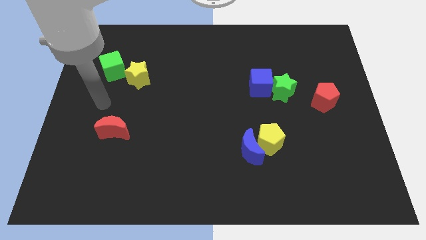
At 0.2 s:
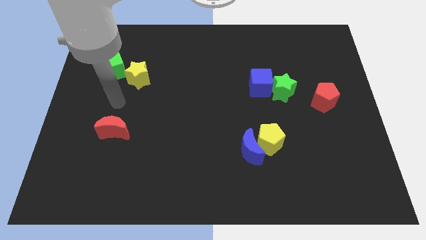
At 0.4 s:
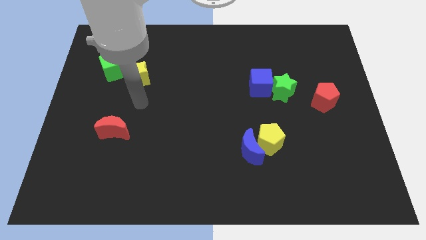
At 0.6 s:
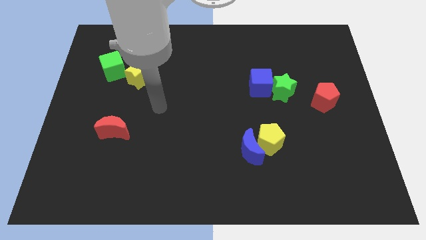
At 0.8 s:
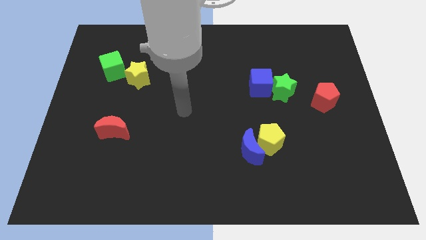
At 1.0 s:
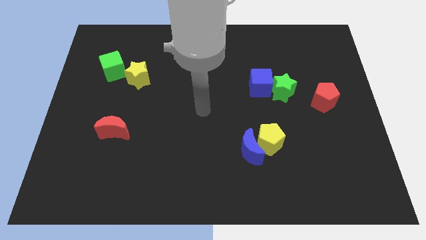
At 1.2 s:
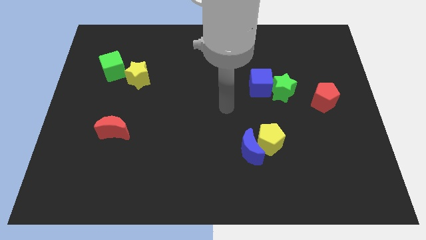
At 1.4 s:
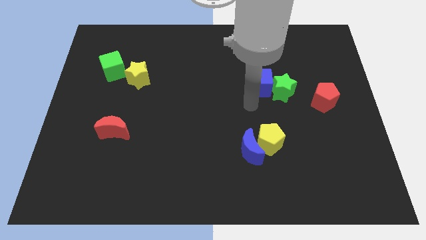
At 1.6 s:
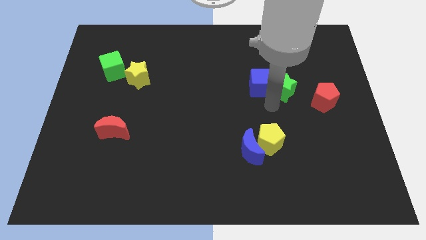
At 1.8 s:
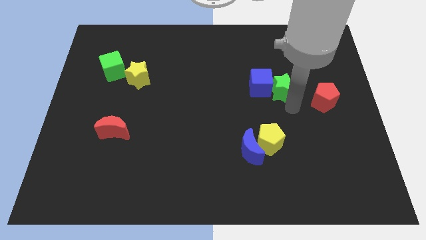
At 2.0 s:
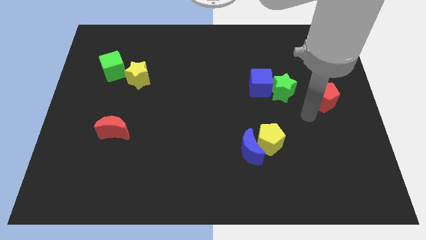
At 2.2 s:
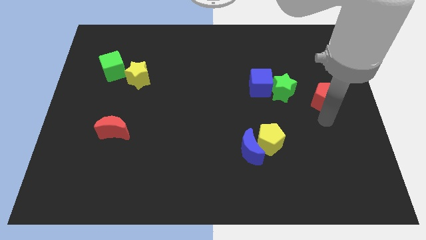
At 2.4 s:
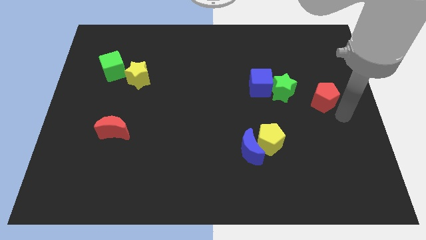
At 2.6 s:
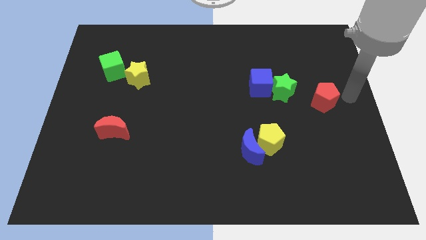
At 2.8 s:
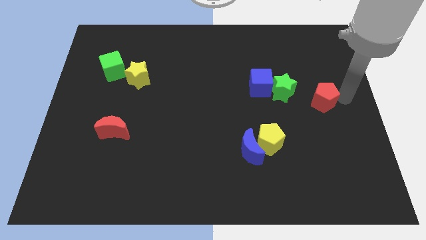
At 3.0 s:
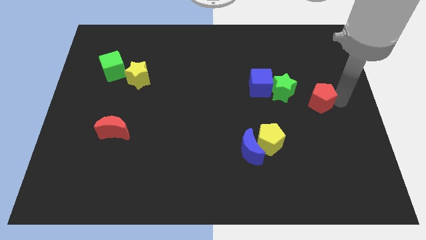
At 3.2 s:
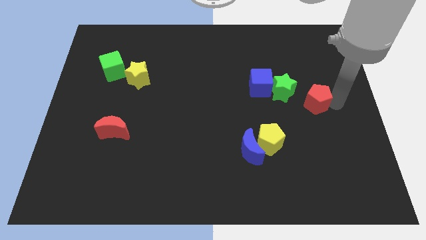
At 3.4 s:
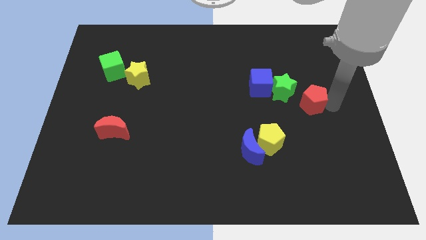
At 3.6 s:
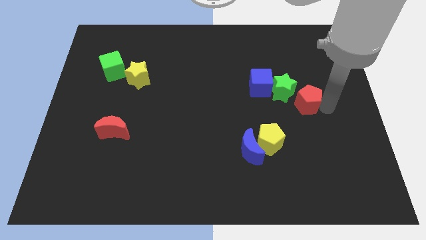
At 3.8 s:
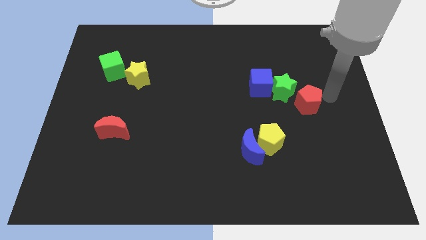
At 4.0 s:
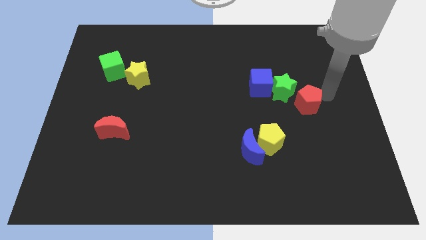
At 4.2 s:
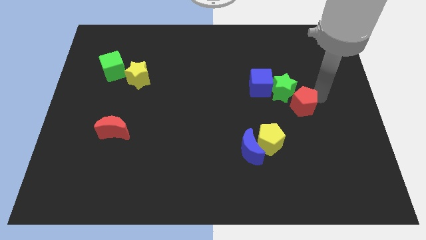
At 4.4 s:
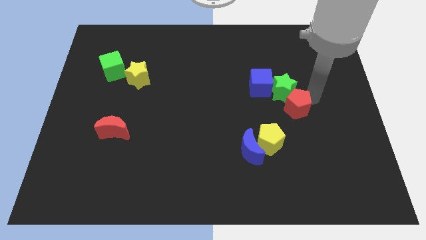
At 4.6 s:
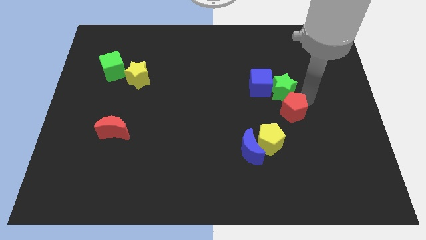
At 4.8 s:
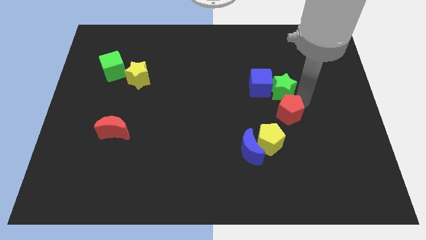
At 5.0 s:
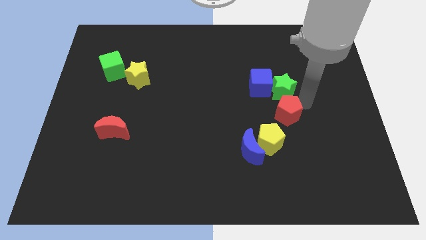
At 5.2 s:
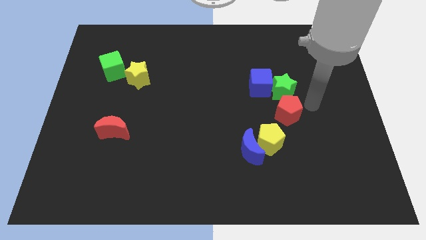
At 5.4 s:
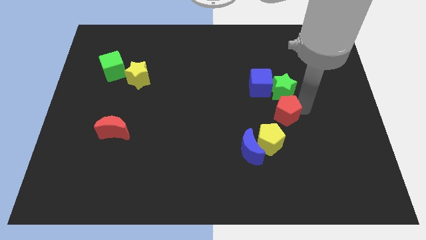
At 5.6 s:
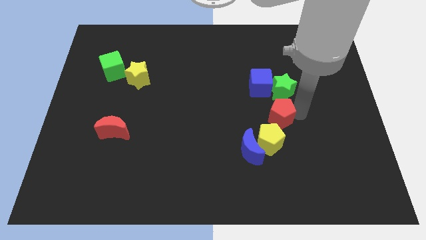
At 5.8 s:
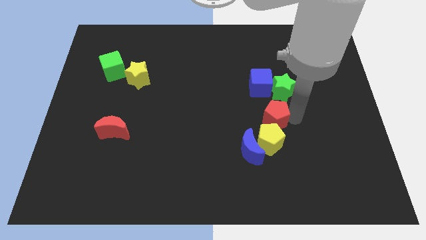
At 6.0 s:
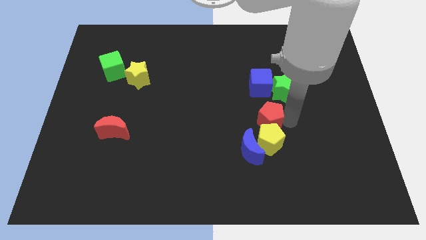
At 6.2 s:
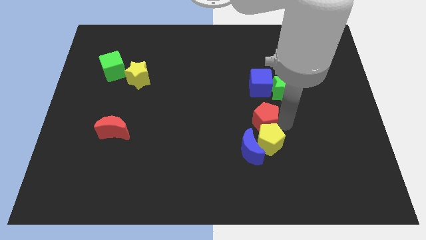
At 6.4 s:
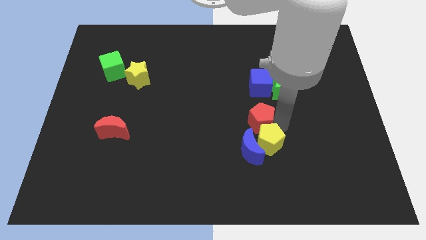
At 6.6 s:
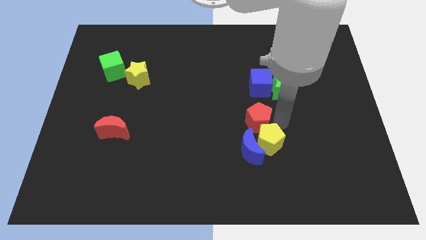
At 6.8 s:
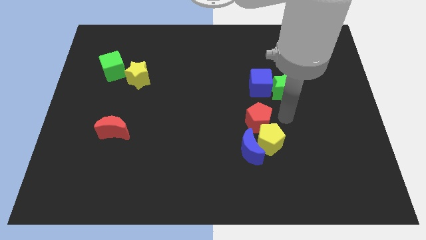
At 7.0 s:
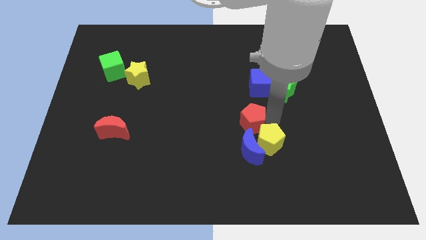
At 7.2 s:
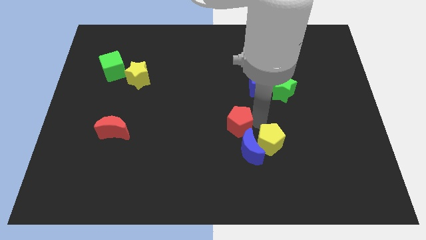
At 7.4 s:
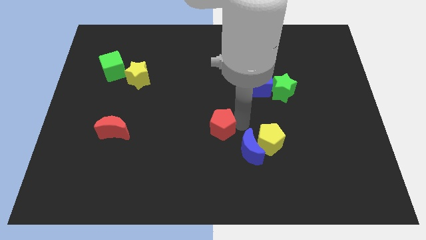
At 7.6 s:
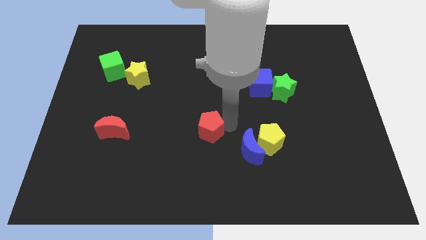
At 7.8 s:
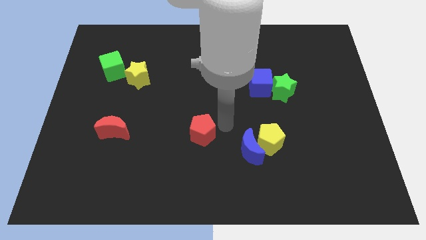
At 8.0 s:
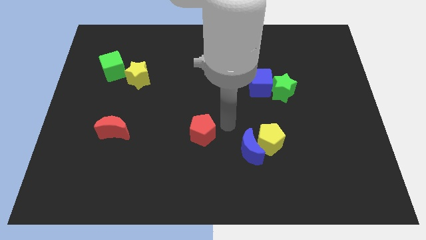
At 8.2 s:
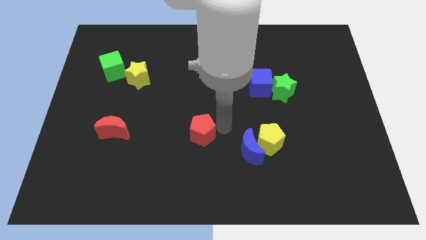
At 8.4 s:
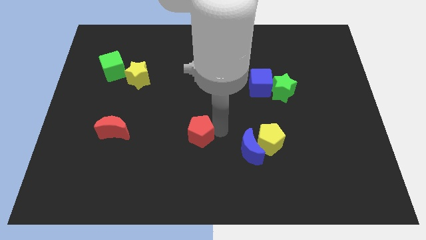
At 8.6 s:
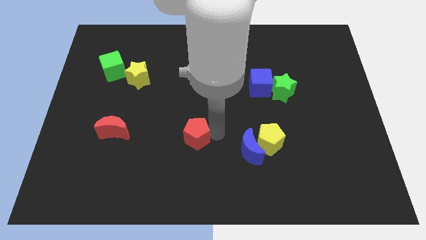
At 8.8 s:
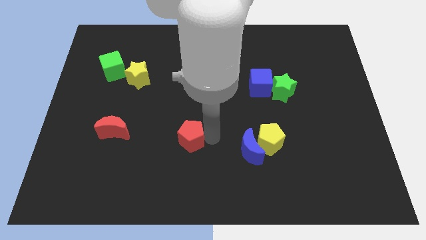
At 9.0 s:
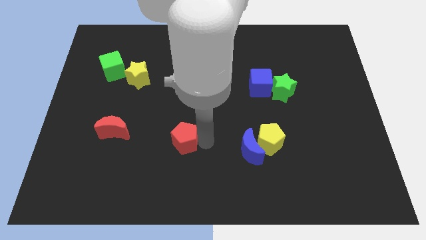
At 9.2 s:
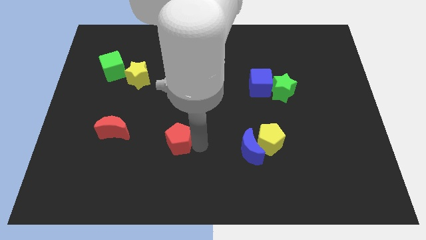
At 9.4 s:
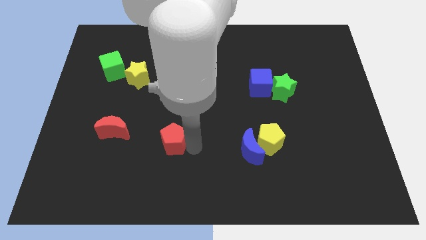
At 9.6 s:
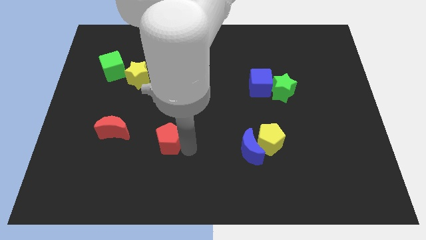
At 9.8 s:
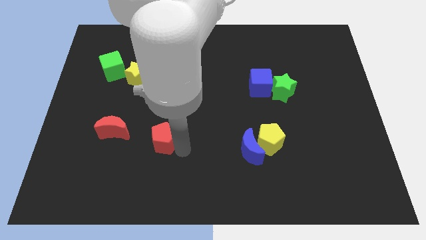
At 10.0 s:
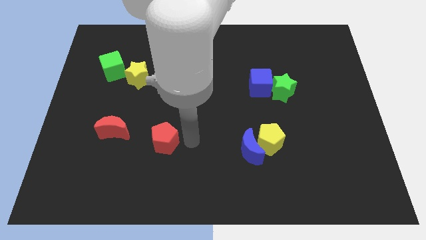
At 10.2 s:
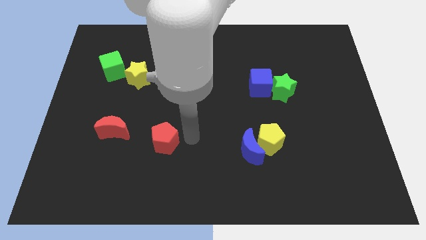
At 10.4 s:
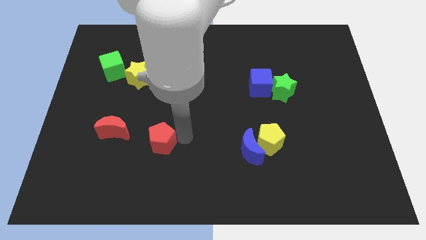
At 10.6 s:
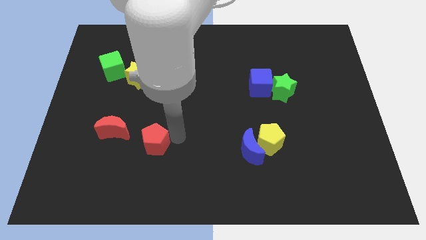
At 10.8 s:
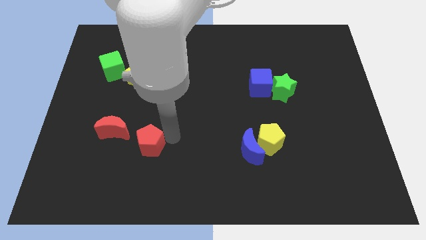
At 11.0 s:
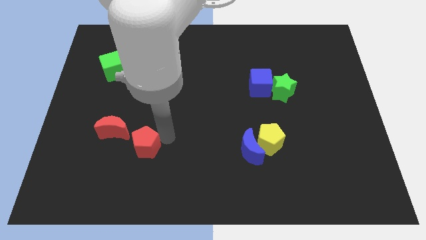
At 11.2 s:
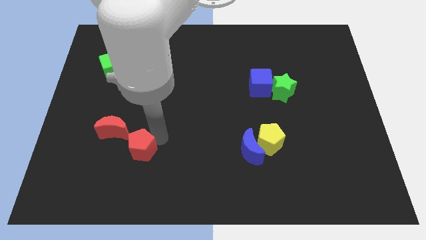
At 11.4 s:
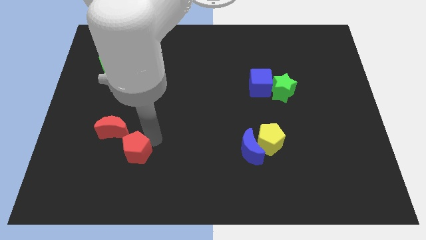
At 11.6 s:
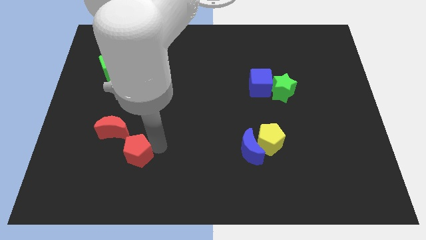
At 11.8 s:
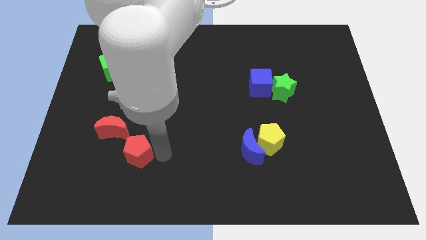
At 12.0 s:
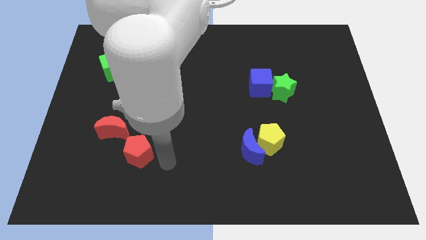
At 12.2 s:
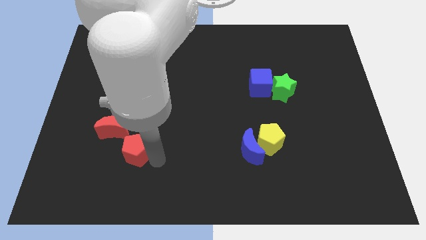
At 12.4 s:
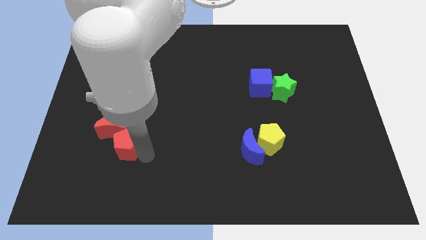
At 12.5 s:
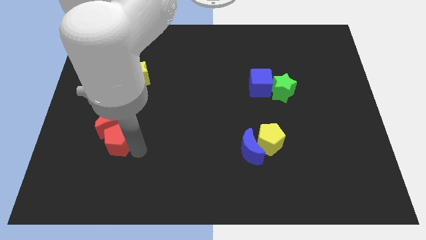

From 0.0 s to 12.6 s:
move the red pentagon diagonally down and to the left of the red moon
